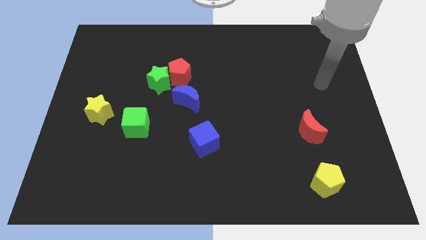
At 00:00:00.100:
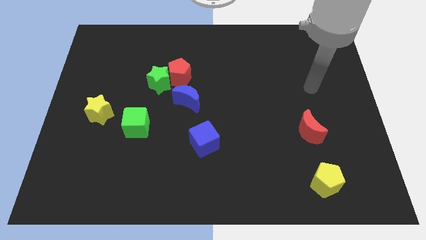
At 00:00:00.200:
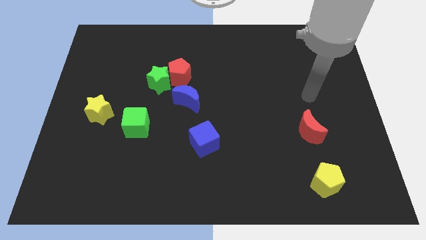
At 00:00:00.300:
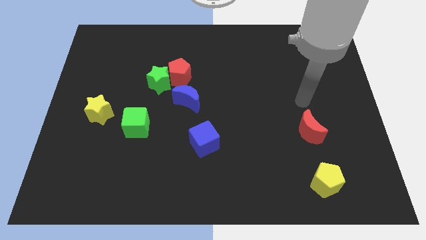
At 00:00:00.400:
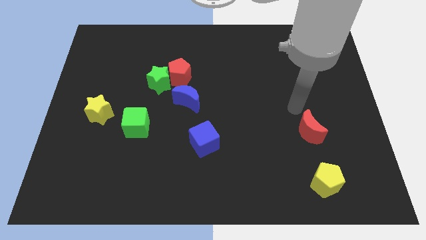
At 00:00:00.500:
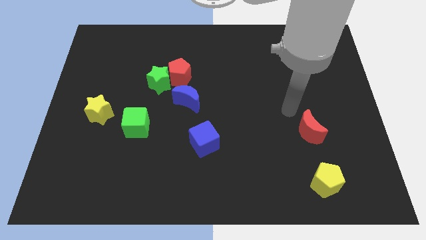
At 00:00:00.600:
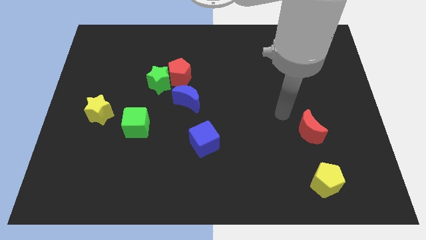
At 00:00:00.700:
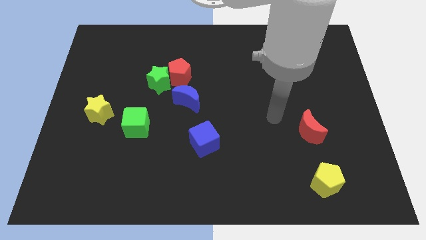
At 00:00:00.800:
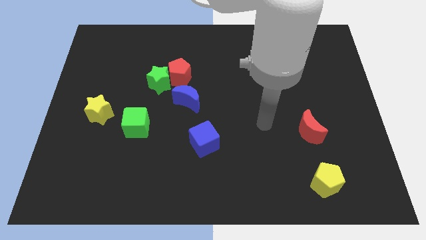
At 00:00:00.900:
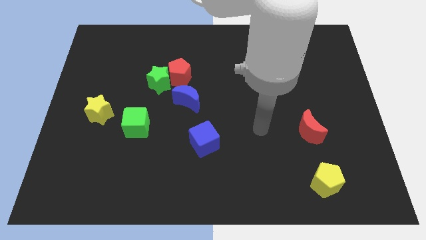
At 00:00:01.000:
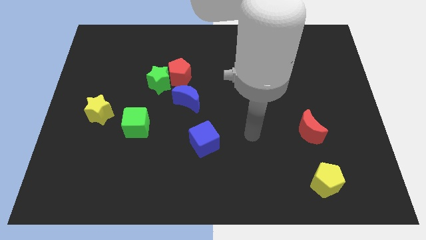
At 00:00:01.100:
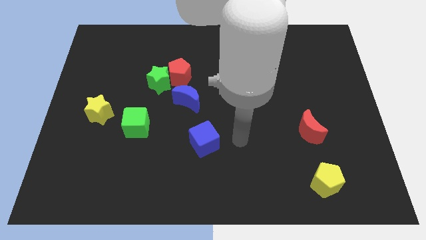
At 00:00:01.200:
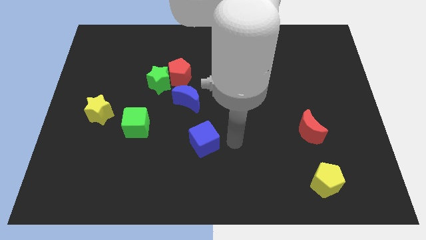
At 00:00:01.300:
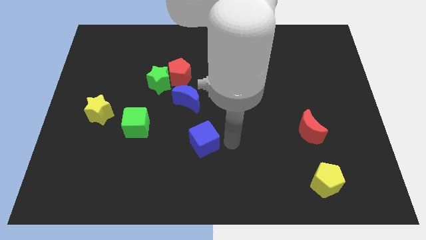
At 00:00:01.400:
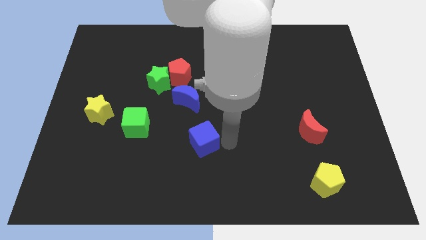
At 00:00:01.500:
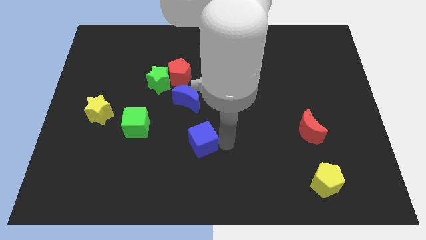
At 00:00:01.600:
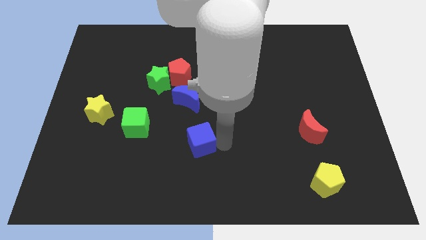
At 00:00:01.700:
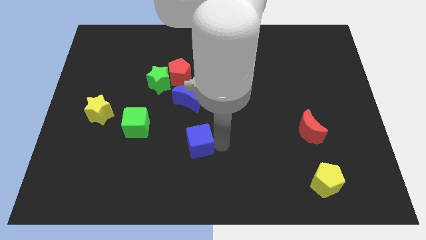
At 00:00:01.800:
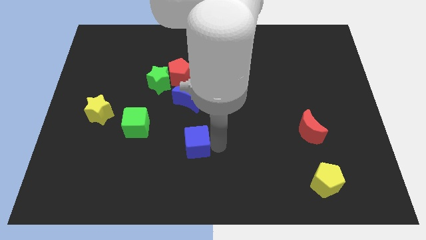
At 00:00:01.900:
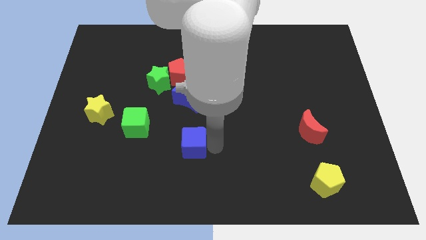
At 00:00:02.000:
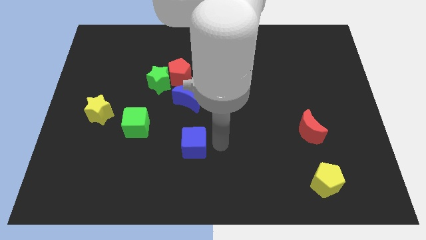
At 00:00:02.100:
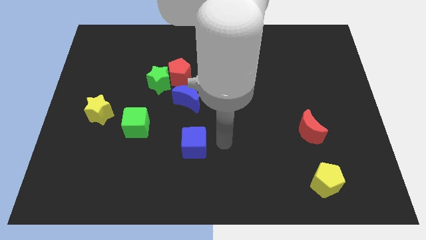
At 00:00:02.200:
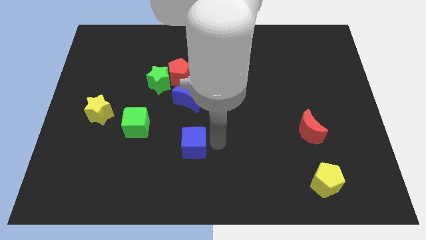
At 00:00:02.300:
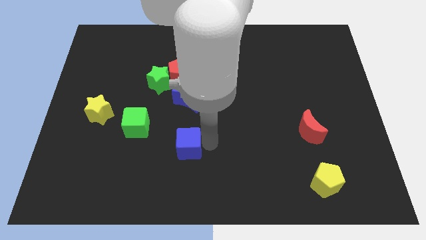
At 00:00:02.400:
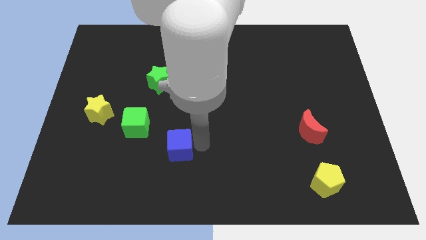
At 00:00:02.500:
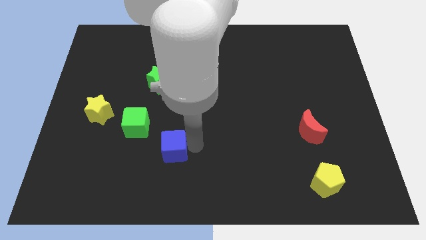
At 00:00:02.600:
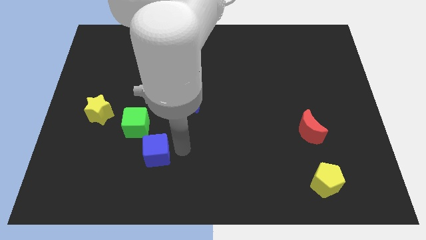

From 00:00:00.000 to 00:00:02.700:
slightly push the blue cube left

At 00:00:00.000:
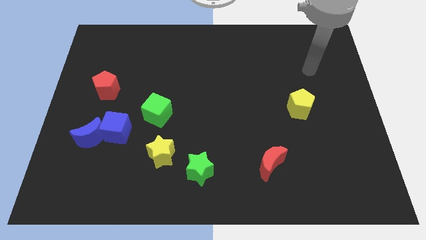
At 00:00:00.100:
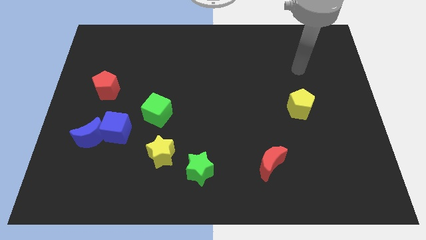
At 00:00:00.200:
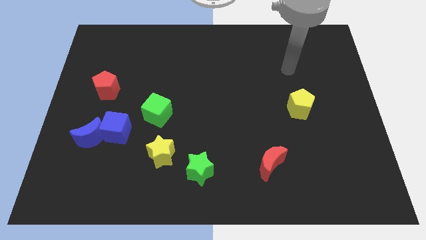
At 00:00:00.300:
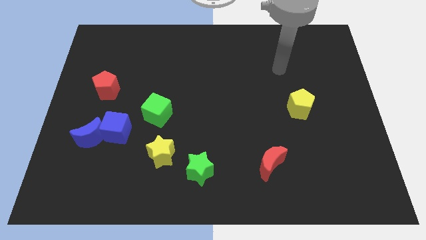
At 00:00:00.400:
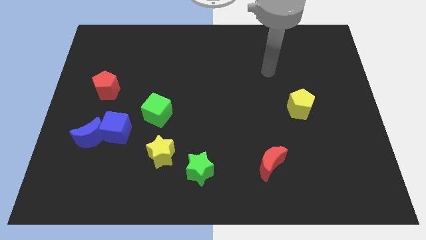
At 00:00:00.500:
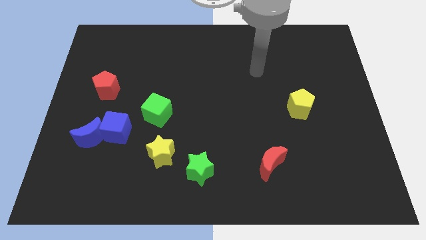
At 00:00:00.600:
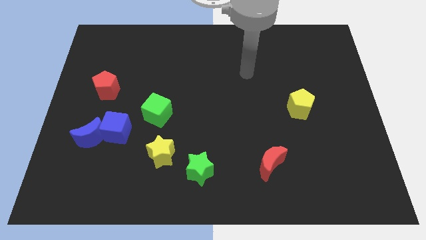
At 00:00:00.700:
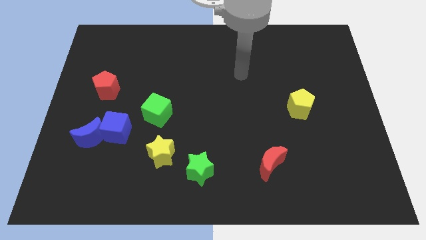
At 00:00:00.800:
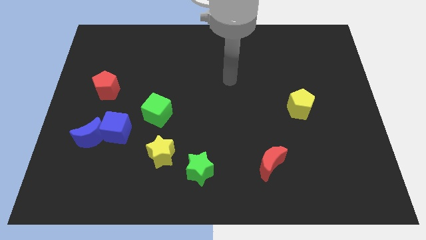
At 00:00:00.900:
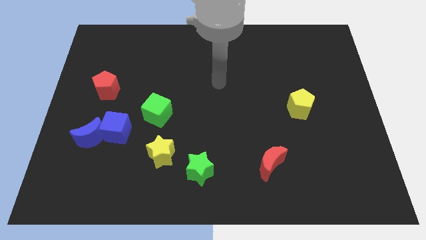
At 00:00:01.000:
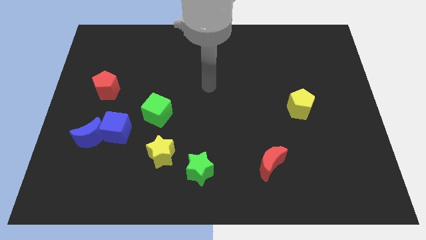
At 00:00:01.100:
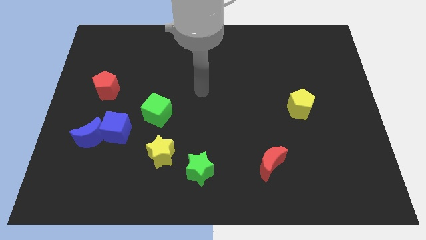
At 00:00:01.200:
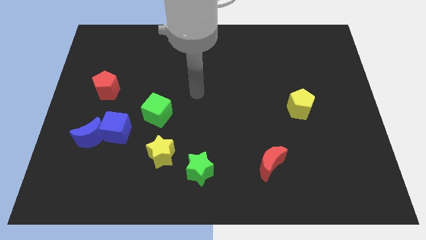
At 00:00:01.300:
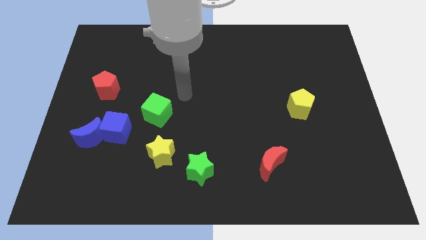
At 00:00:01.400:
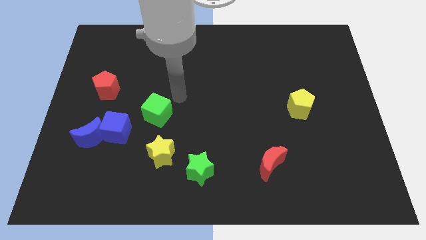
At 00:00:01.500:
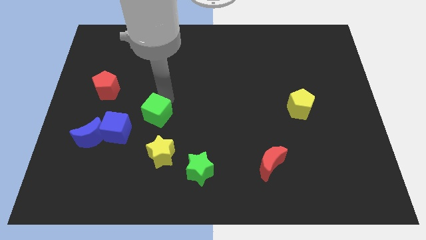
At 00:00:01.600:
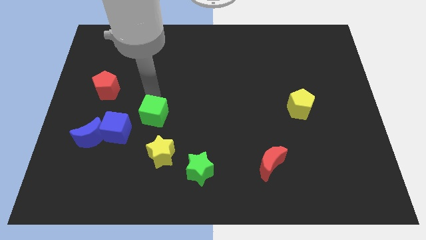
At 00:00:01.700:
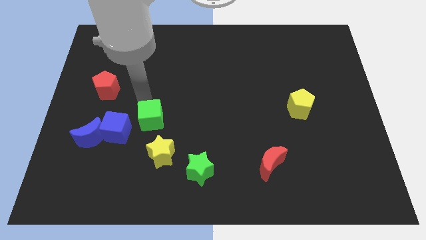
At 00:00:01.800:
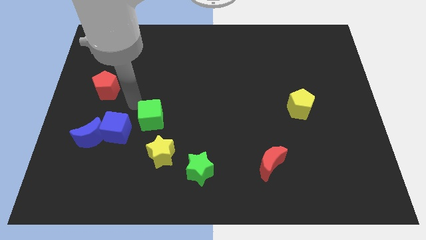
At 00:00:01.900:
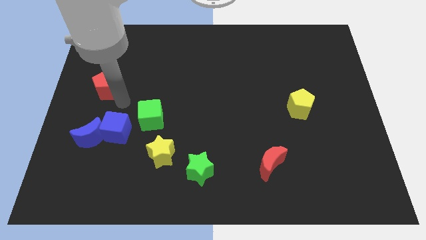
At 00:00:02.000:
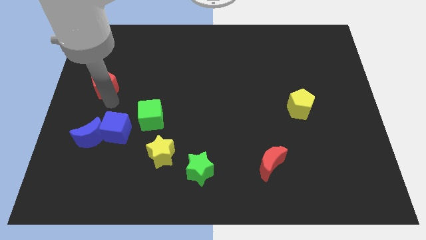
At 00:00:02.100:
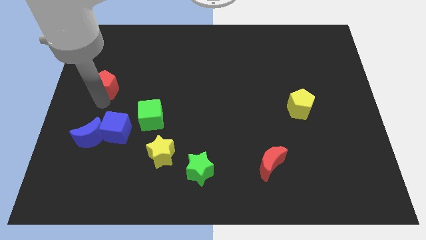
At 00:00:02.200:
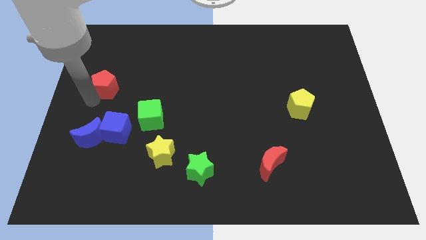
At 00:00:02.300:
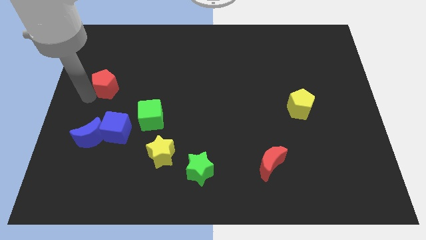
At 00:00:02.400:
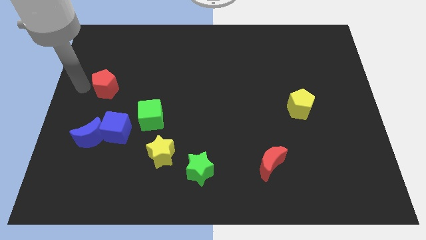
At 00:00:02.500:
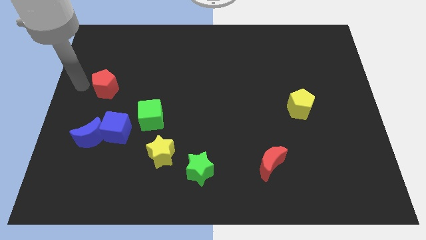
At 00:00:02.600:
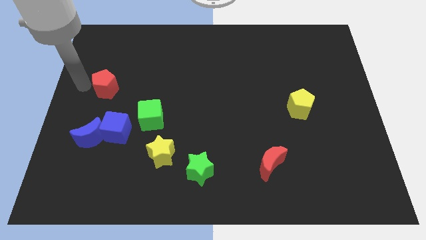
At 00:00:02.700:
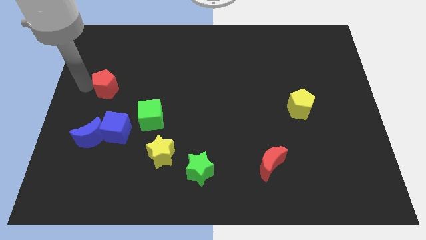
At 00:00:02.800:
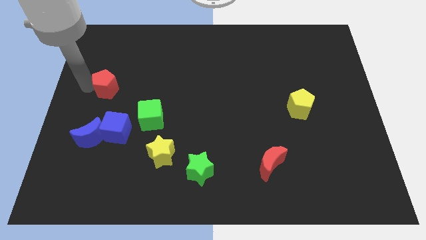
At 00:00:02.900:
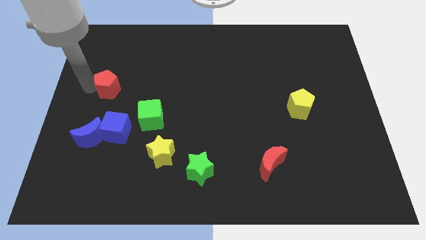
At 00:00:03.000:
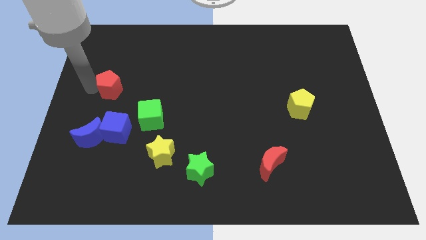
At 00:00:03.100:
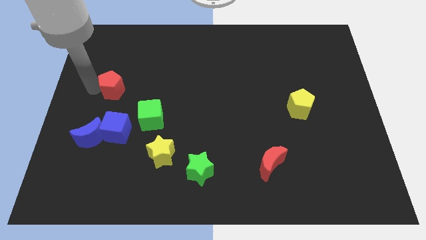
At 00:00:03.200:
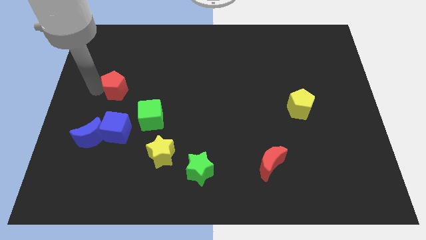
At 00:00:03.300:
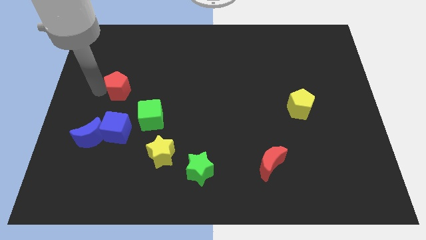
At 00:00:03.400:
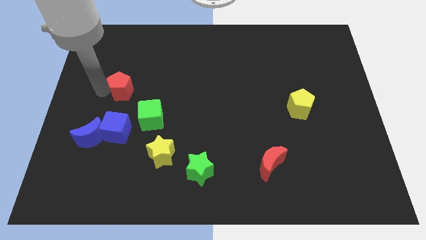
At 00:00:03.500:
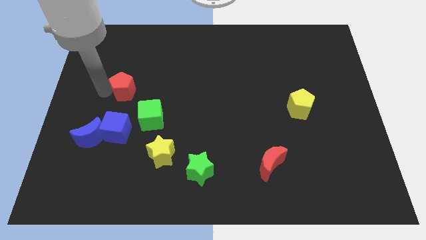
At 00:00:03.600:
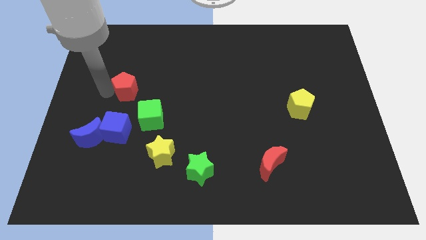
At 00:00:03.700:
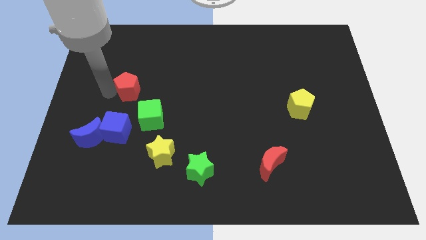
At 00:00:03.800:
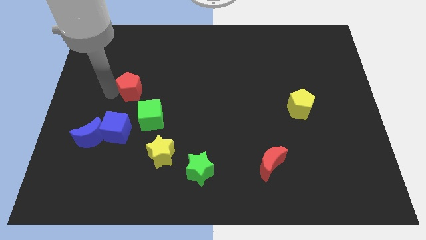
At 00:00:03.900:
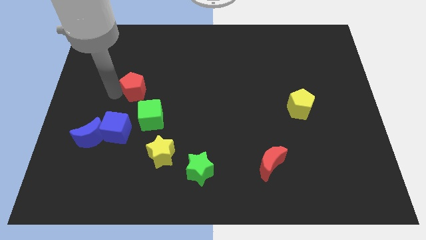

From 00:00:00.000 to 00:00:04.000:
slide the red pentagon slightly right

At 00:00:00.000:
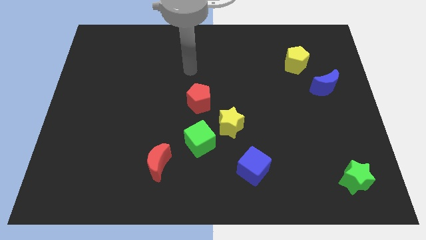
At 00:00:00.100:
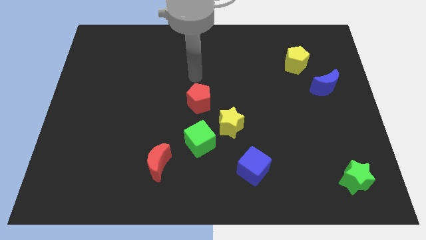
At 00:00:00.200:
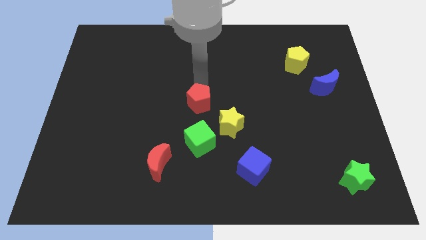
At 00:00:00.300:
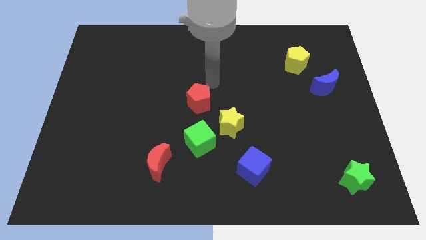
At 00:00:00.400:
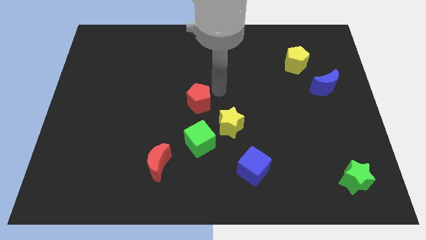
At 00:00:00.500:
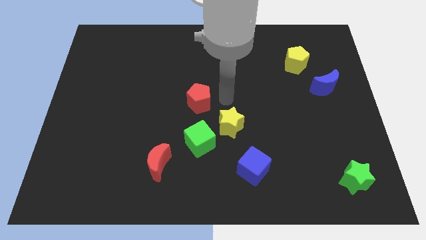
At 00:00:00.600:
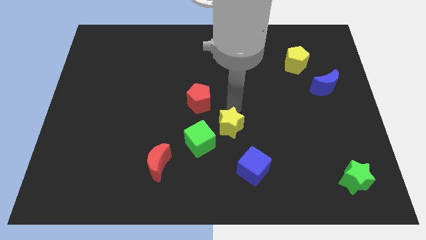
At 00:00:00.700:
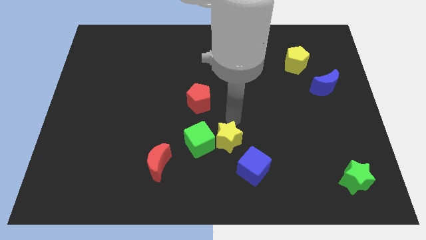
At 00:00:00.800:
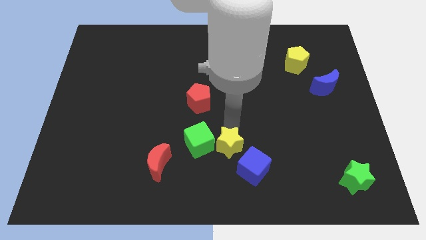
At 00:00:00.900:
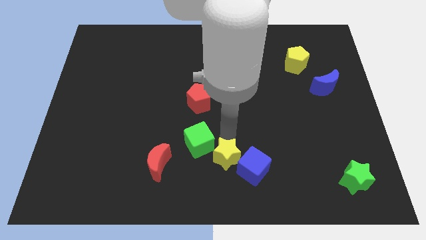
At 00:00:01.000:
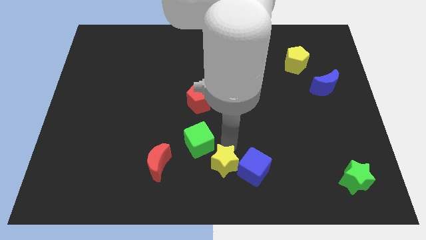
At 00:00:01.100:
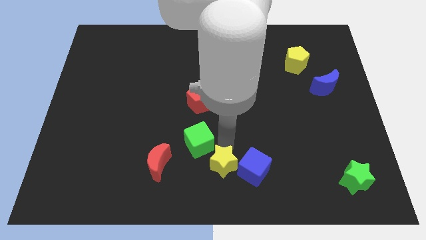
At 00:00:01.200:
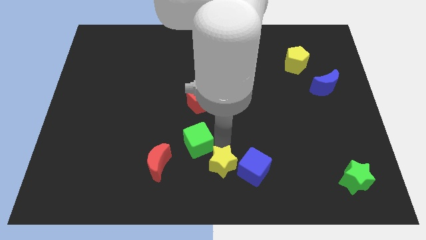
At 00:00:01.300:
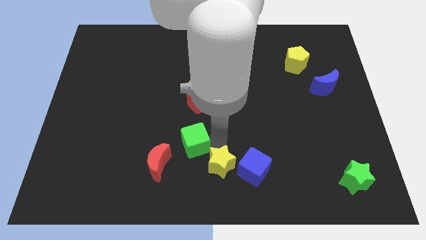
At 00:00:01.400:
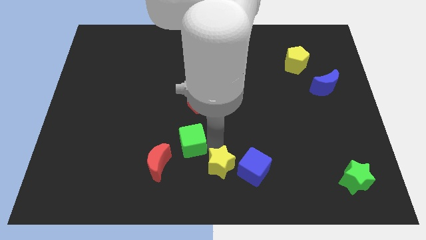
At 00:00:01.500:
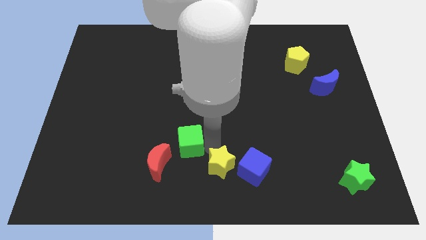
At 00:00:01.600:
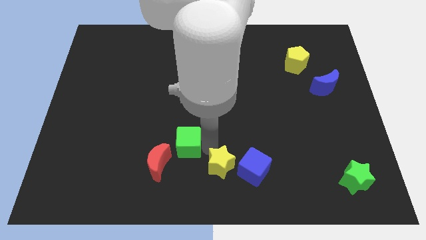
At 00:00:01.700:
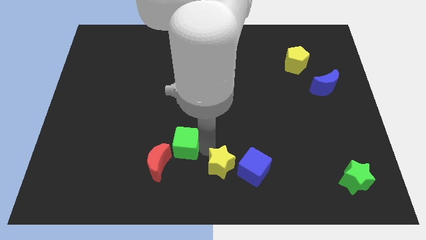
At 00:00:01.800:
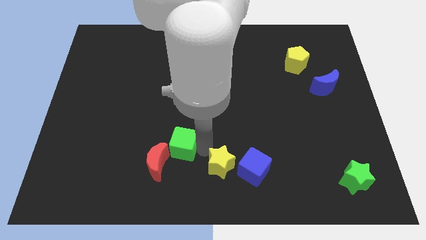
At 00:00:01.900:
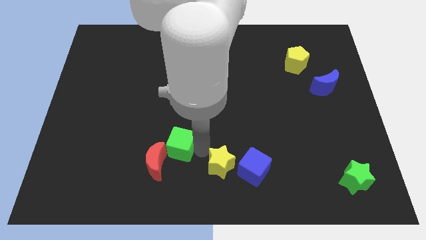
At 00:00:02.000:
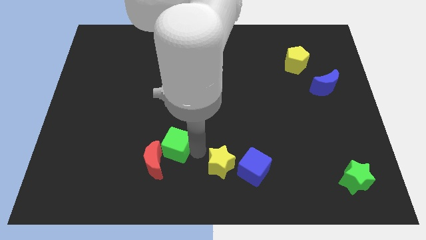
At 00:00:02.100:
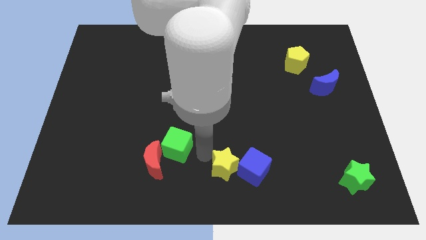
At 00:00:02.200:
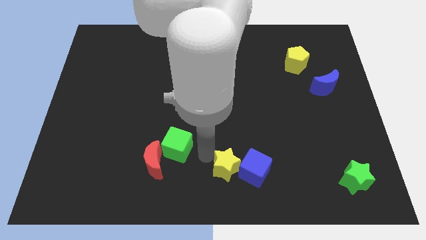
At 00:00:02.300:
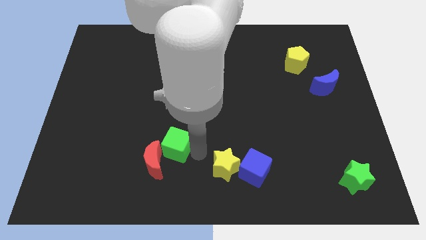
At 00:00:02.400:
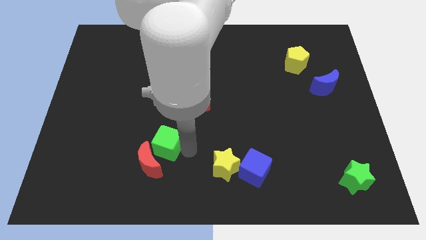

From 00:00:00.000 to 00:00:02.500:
push the green cube a little left
